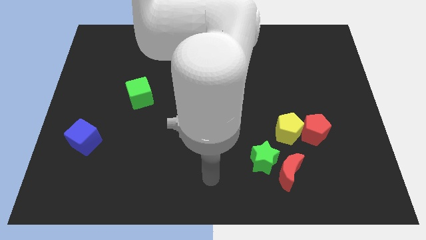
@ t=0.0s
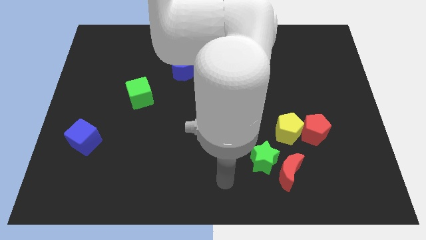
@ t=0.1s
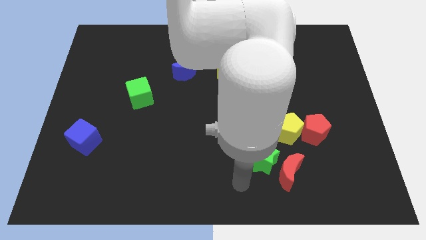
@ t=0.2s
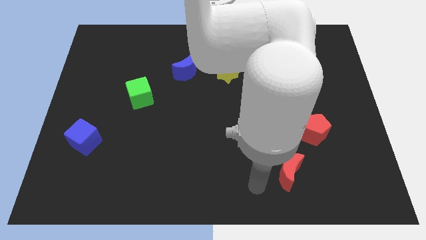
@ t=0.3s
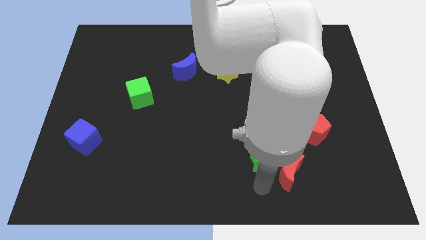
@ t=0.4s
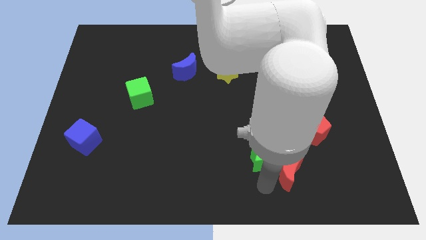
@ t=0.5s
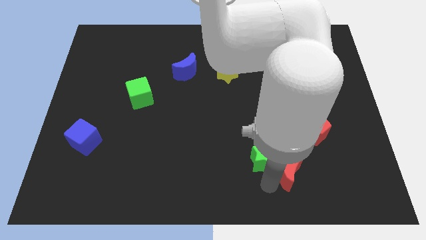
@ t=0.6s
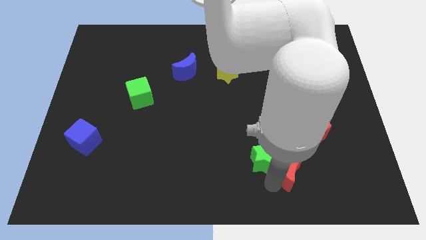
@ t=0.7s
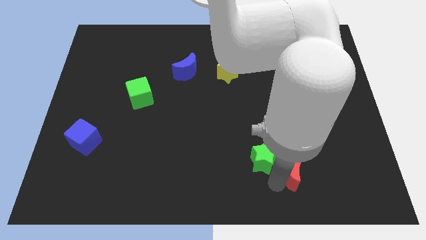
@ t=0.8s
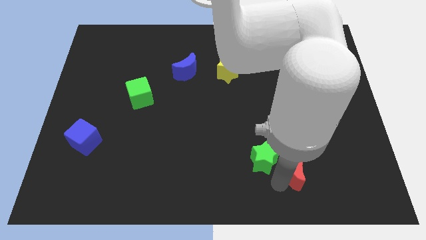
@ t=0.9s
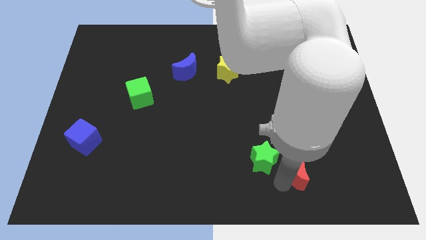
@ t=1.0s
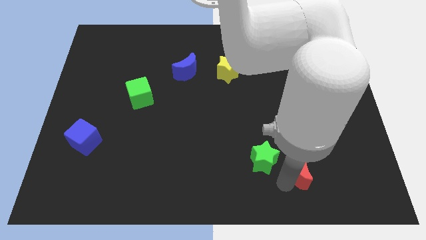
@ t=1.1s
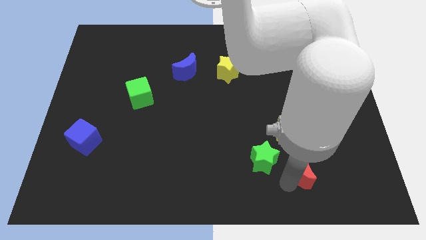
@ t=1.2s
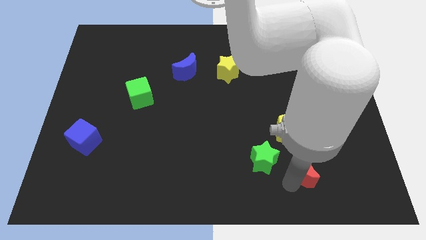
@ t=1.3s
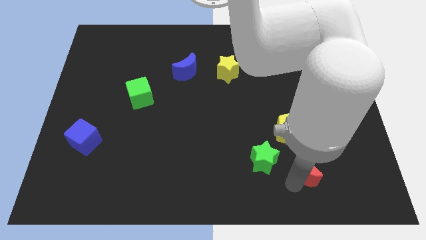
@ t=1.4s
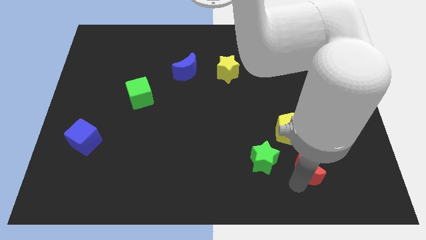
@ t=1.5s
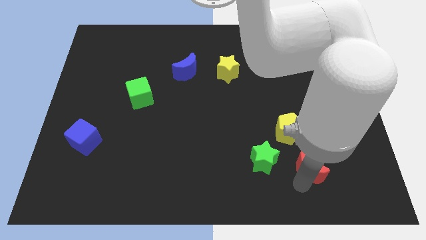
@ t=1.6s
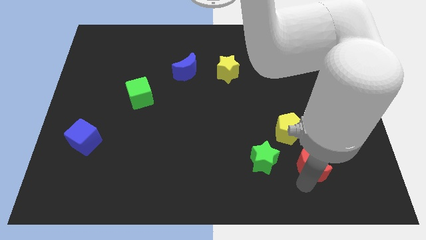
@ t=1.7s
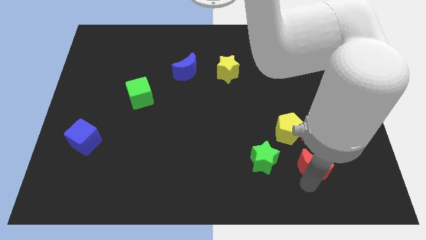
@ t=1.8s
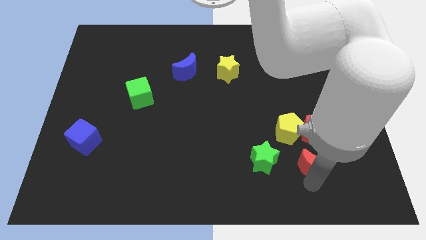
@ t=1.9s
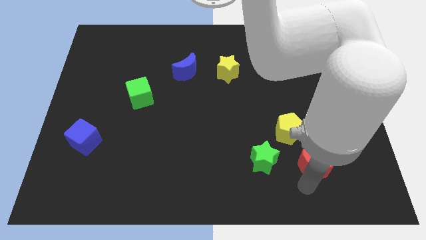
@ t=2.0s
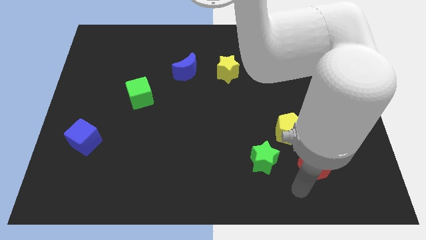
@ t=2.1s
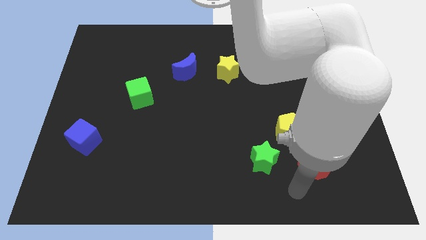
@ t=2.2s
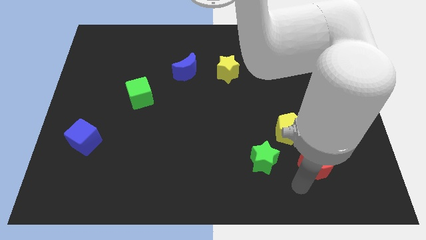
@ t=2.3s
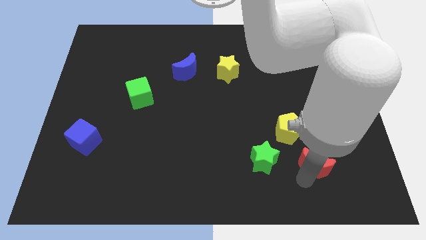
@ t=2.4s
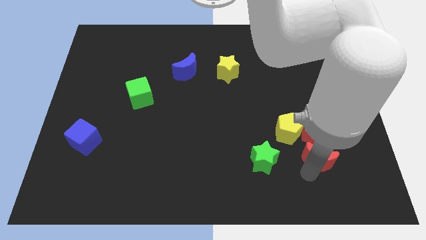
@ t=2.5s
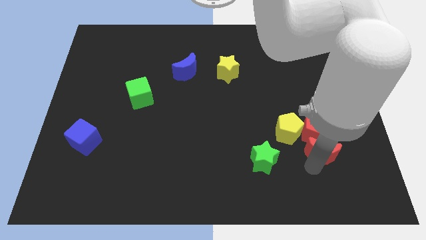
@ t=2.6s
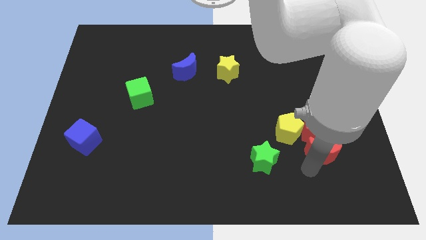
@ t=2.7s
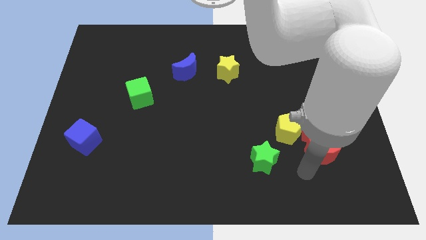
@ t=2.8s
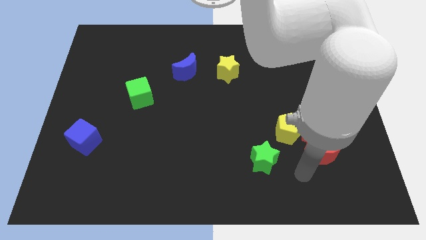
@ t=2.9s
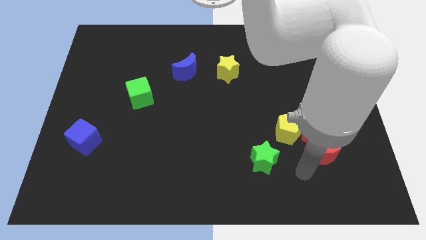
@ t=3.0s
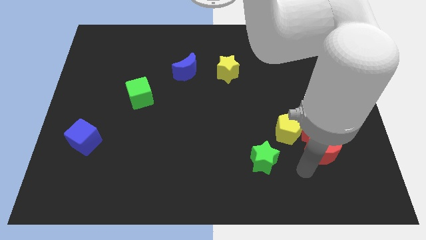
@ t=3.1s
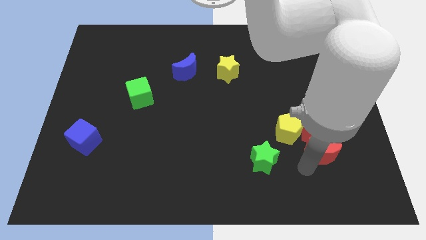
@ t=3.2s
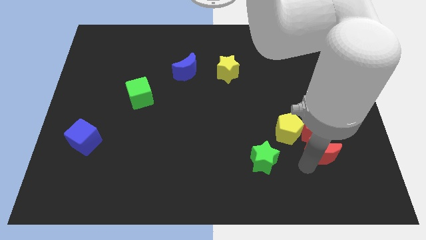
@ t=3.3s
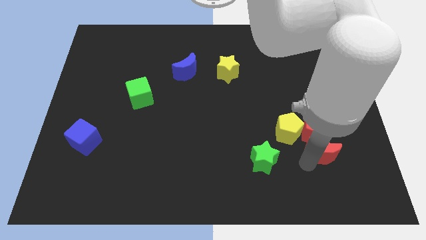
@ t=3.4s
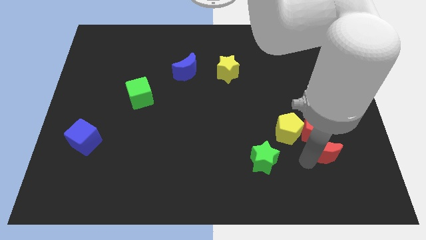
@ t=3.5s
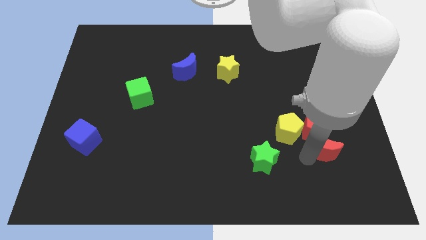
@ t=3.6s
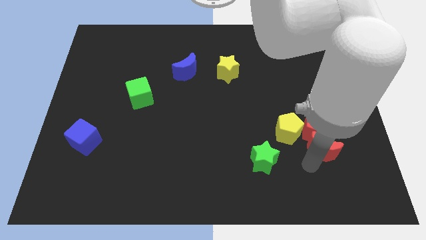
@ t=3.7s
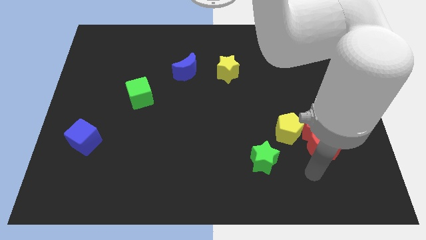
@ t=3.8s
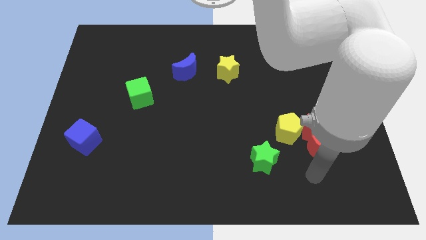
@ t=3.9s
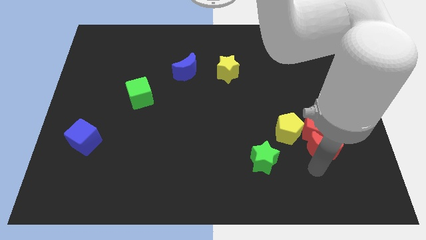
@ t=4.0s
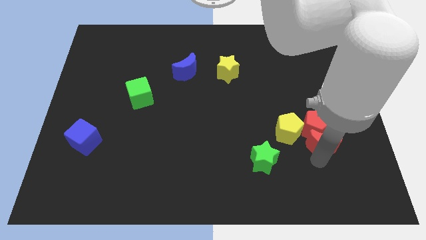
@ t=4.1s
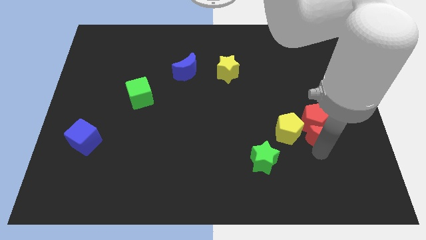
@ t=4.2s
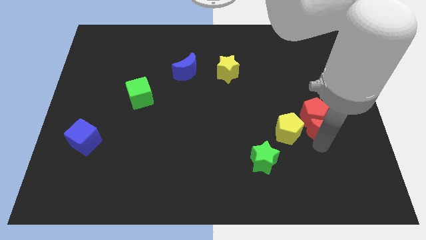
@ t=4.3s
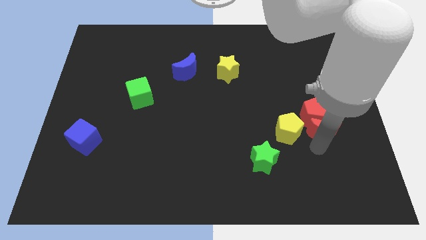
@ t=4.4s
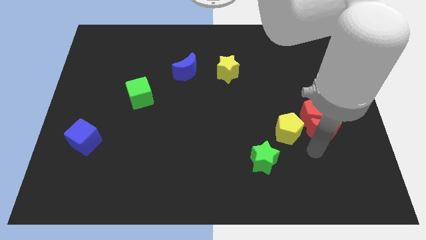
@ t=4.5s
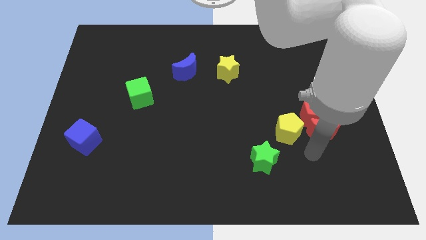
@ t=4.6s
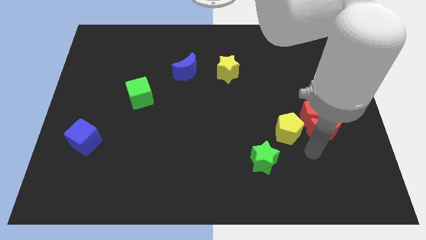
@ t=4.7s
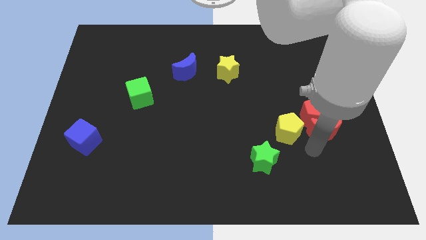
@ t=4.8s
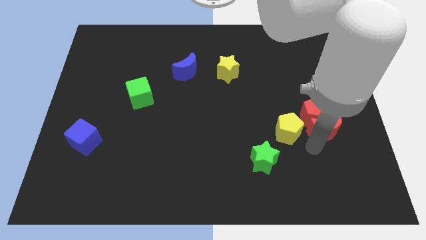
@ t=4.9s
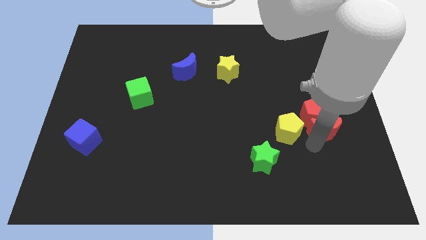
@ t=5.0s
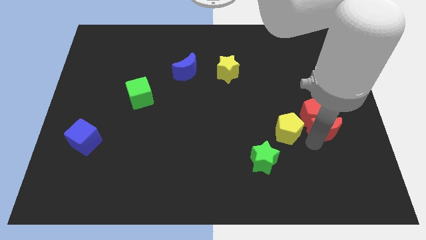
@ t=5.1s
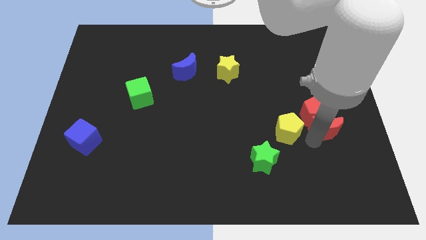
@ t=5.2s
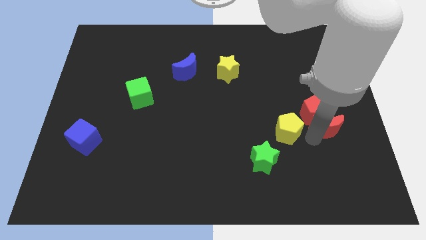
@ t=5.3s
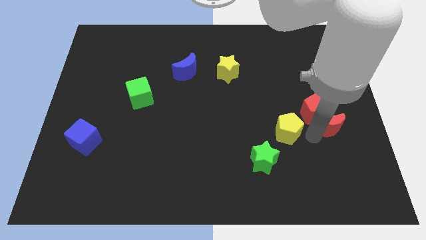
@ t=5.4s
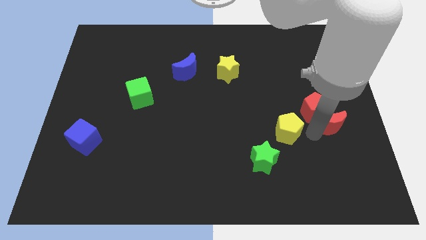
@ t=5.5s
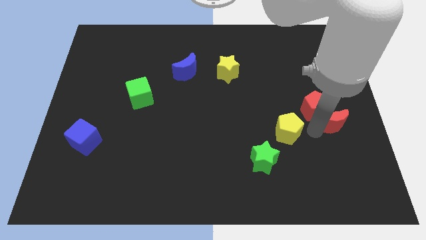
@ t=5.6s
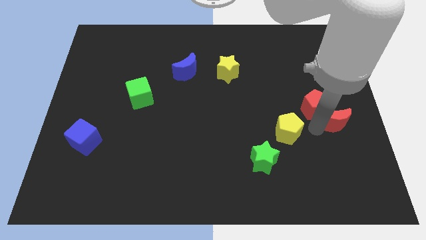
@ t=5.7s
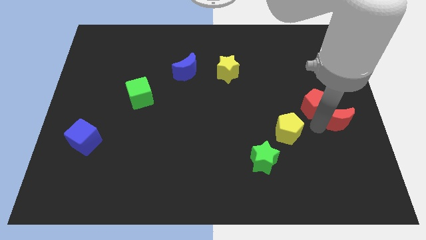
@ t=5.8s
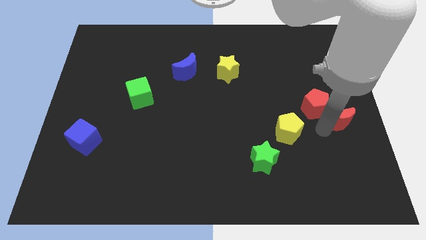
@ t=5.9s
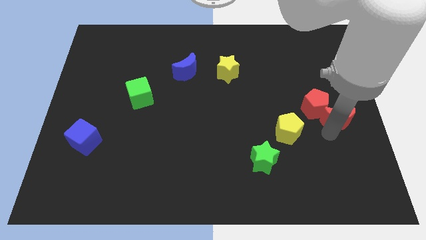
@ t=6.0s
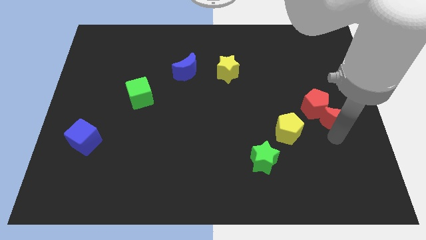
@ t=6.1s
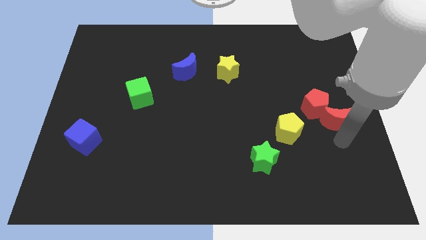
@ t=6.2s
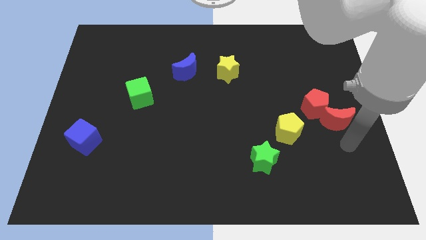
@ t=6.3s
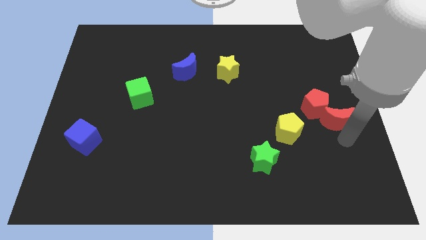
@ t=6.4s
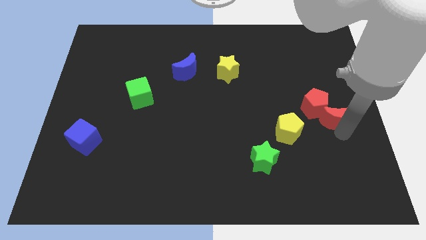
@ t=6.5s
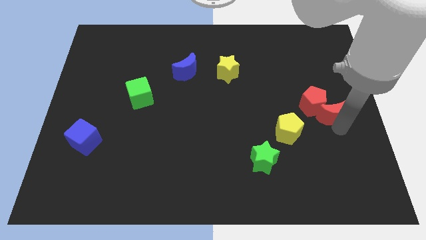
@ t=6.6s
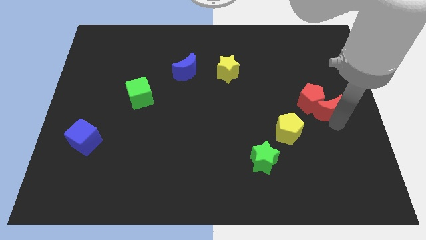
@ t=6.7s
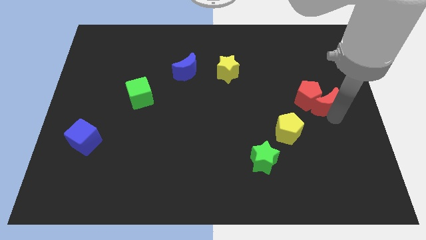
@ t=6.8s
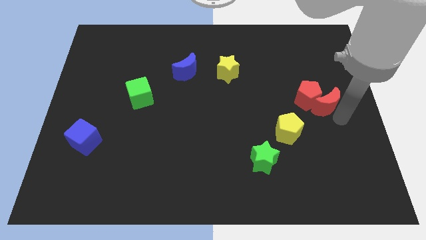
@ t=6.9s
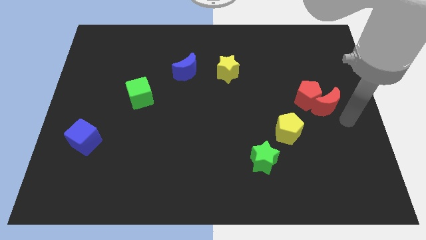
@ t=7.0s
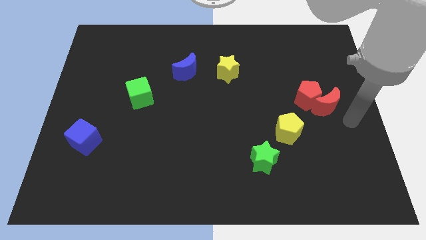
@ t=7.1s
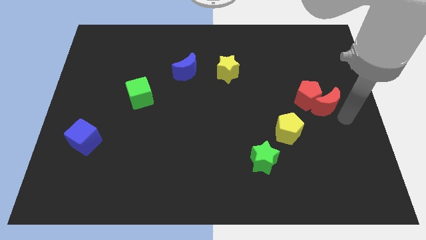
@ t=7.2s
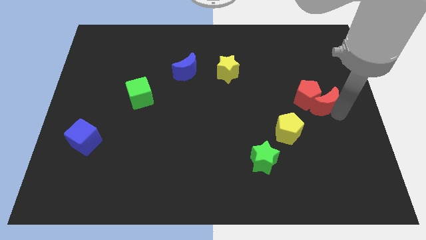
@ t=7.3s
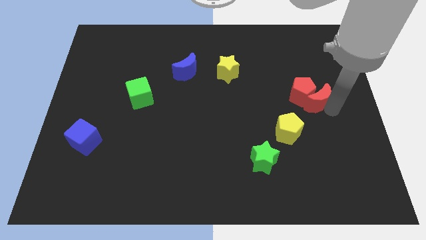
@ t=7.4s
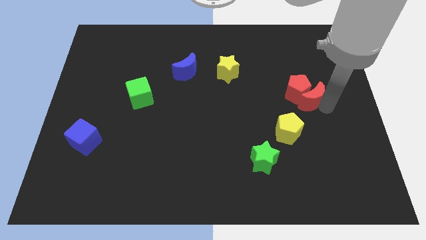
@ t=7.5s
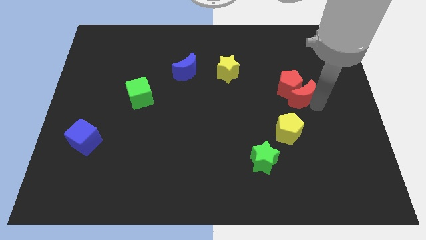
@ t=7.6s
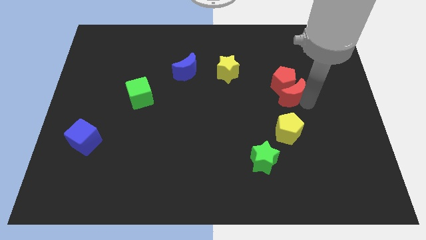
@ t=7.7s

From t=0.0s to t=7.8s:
move the red moon upwards
